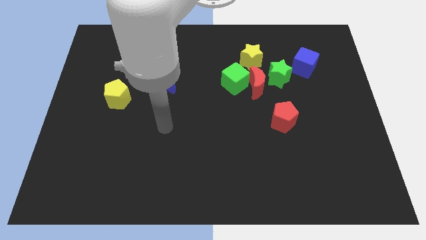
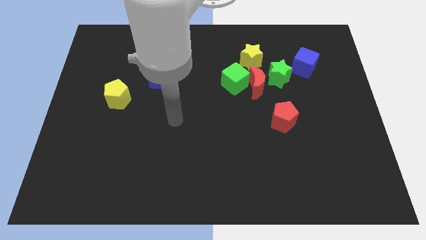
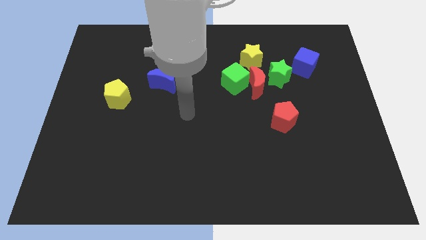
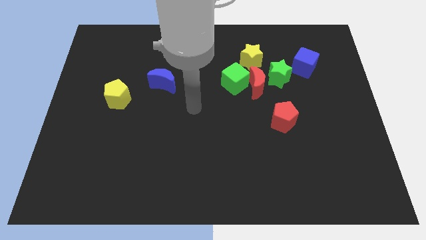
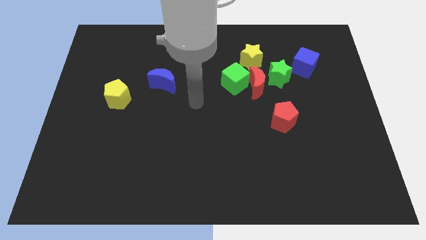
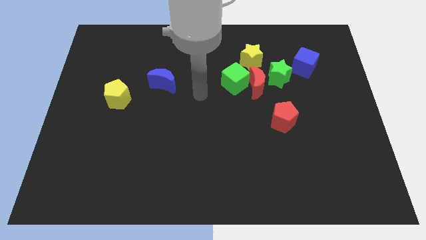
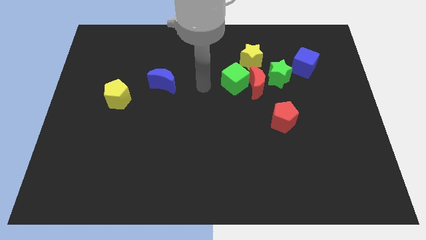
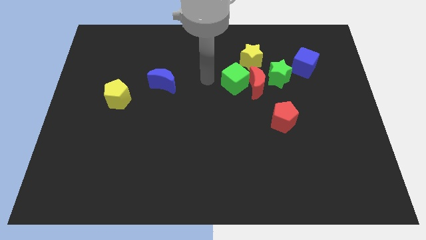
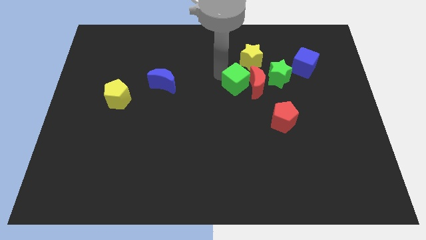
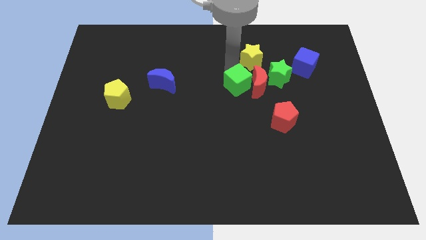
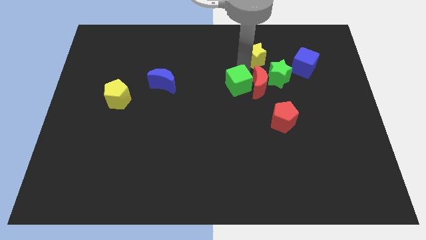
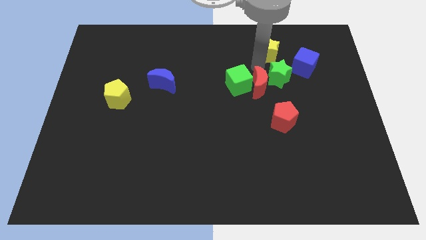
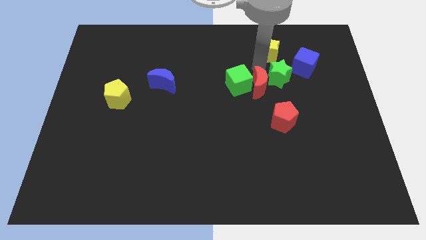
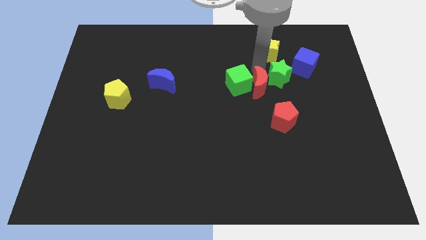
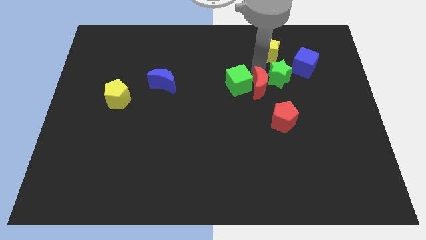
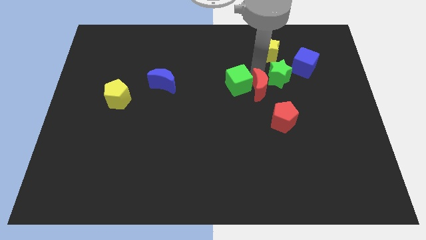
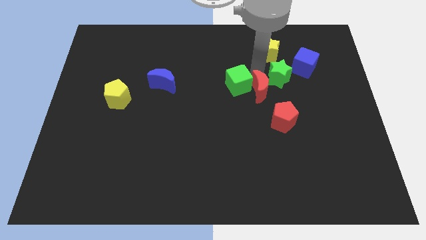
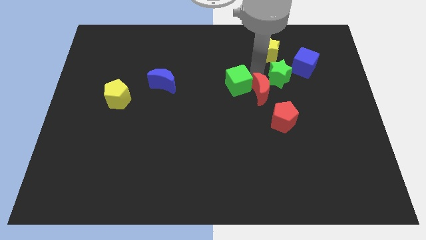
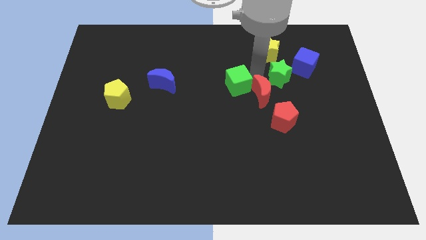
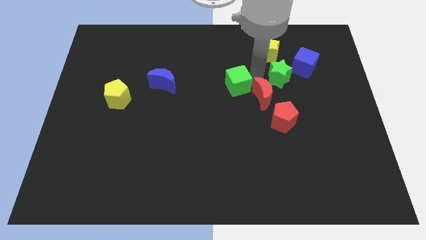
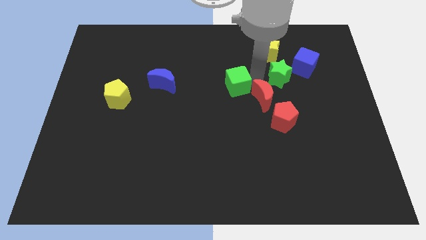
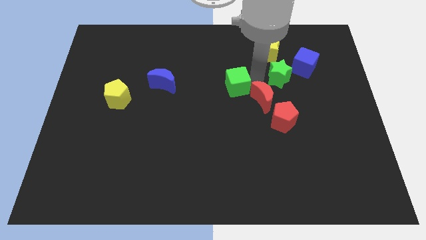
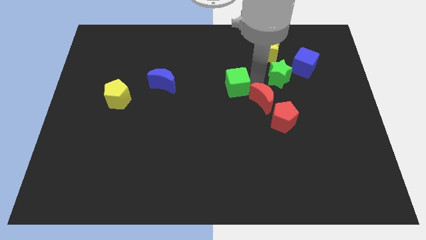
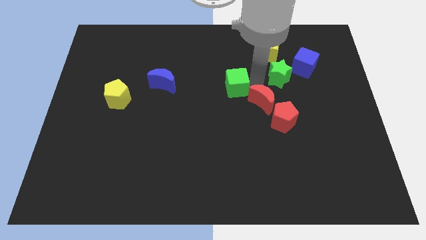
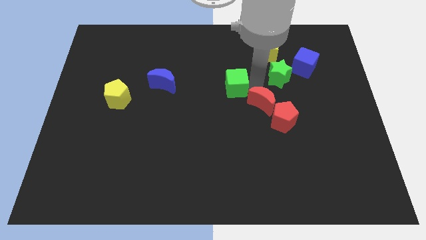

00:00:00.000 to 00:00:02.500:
pull the red moon apart from the group of blocks

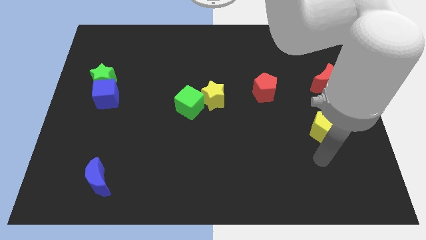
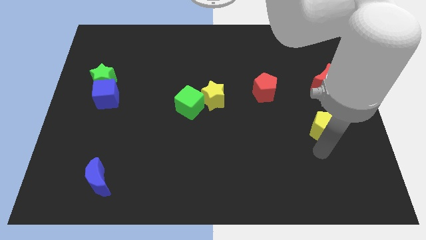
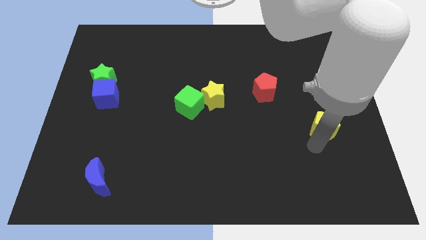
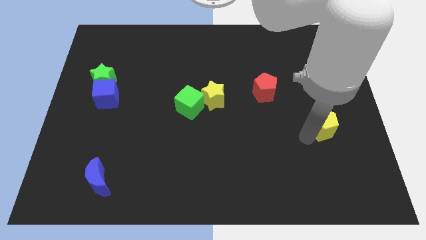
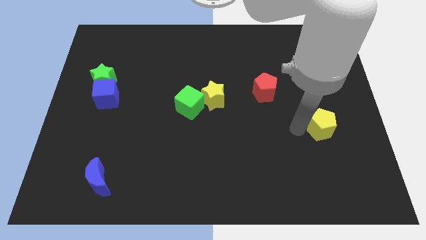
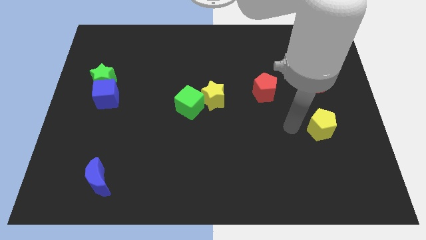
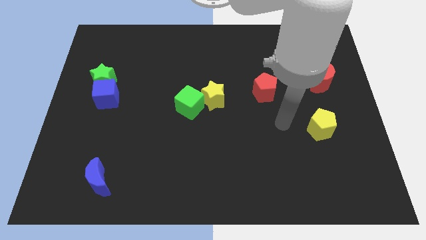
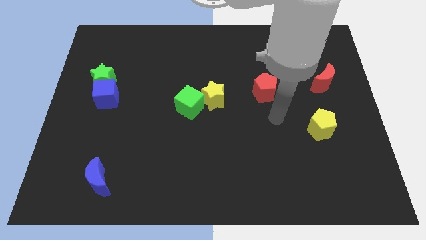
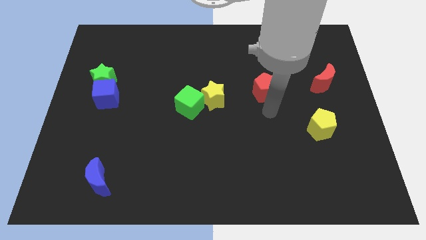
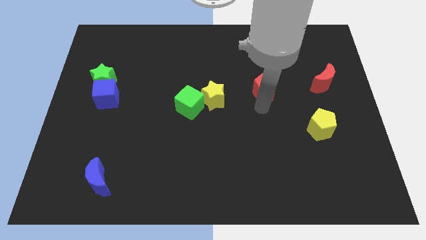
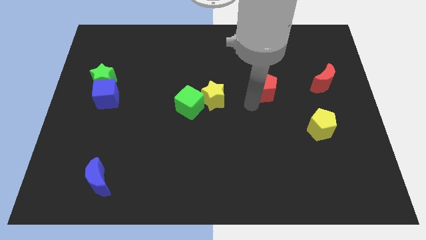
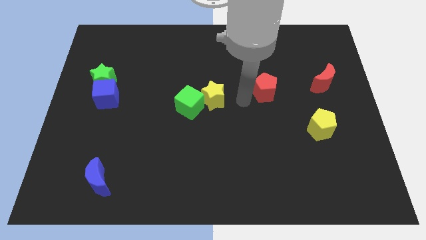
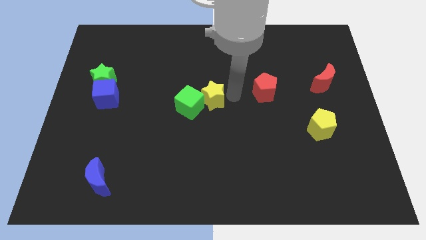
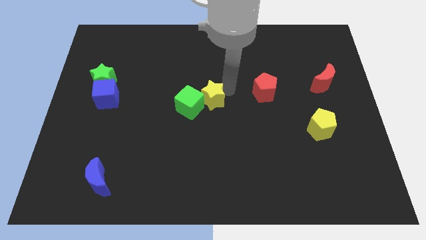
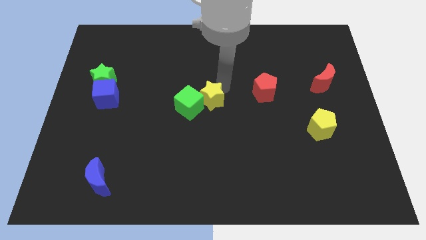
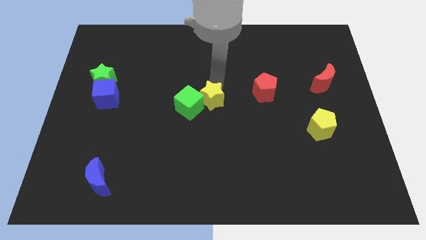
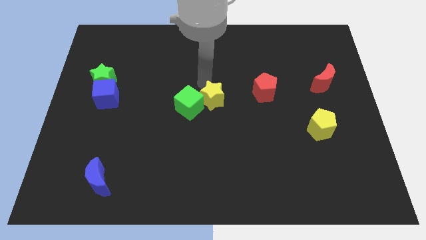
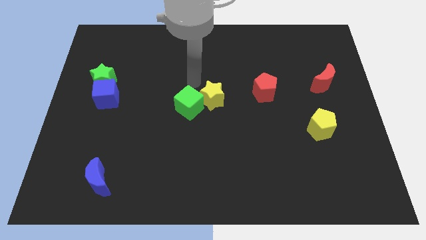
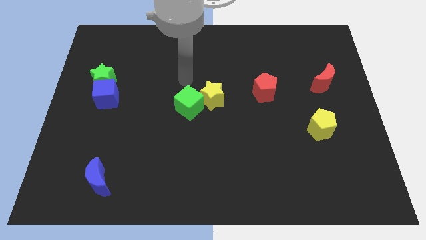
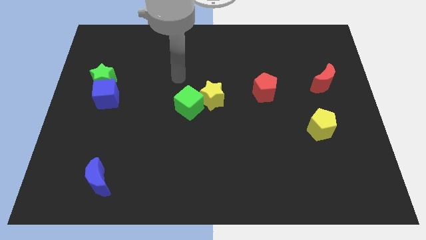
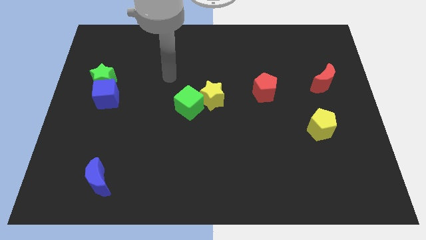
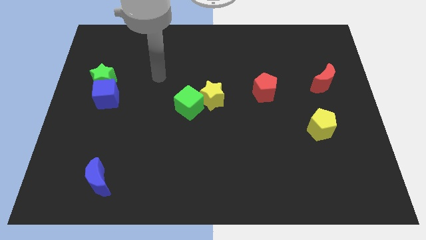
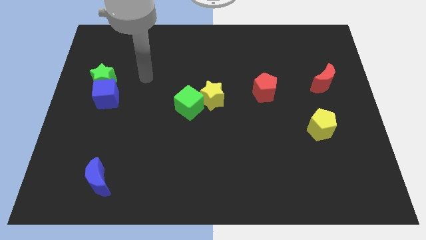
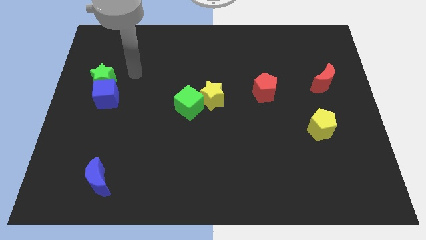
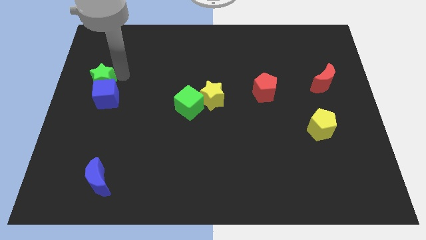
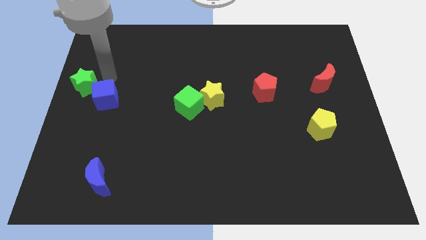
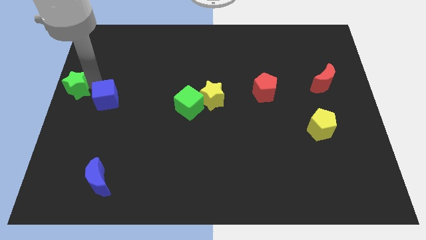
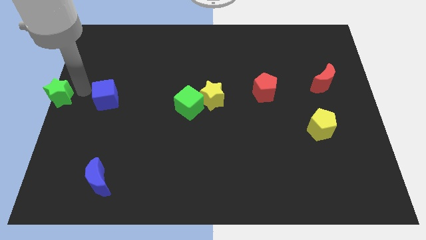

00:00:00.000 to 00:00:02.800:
separate the blue cube from the green star

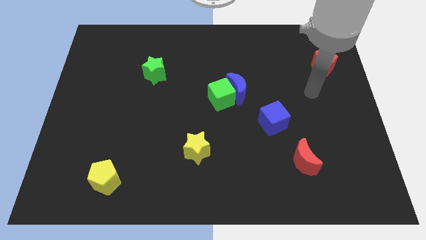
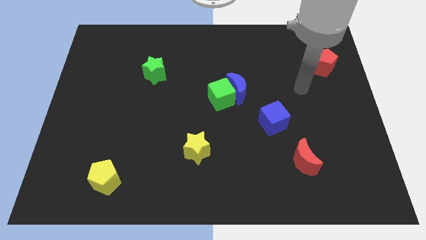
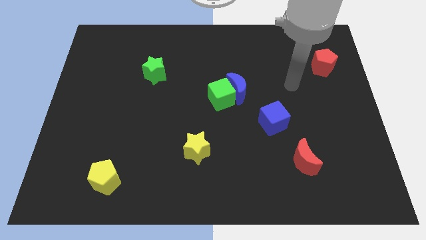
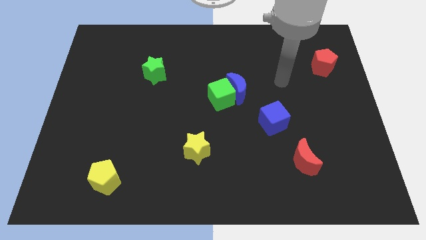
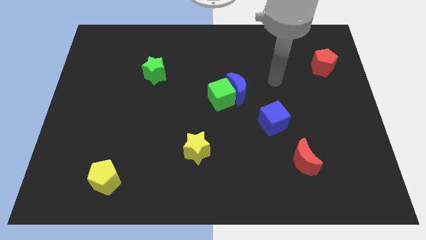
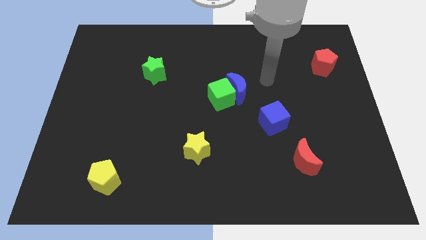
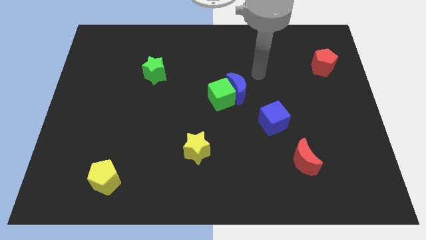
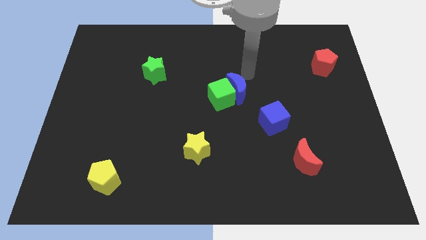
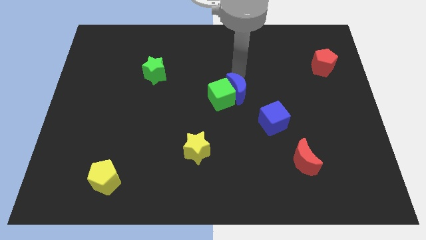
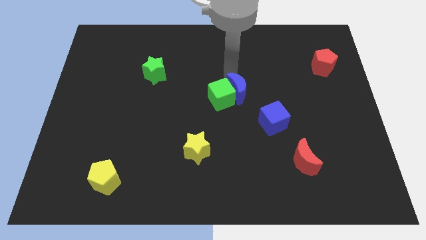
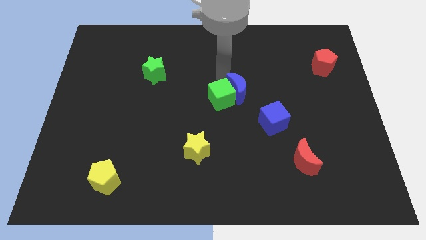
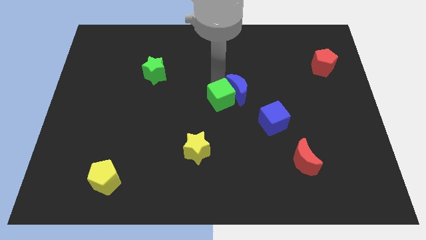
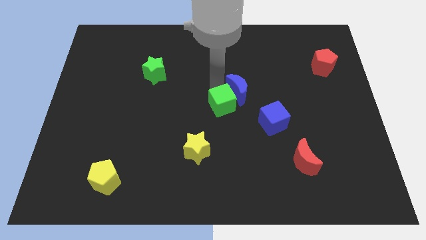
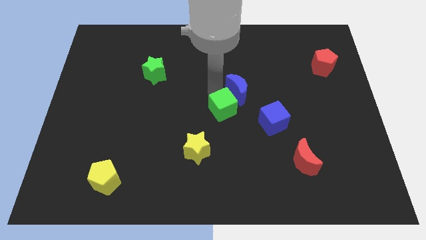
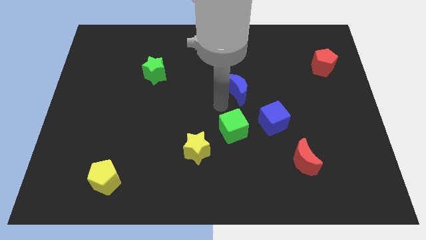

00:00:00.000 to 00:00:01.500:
move the blue moon away from the green cube

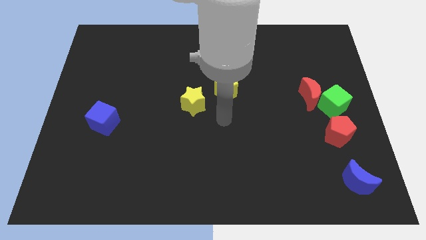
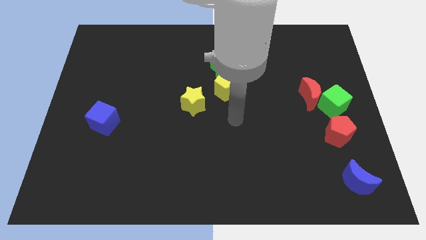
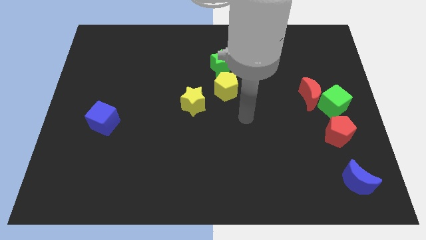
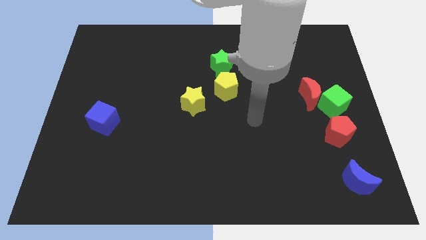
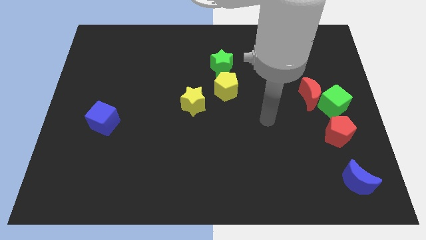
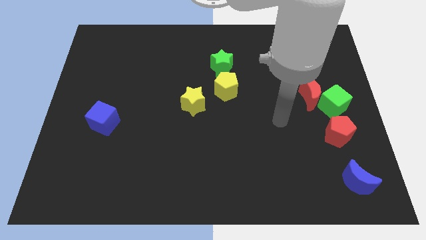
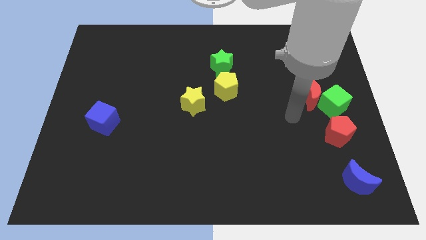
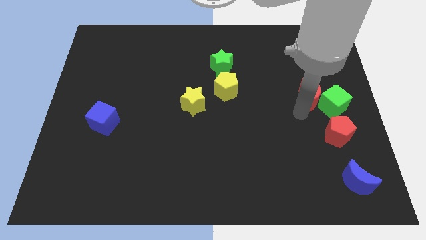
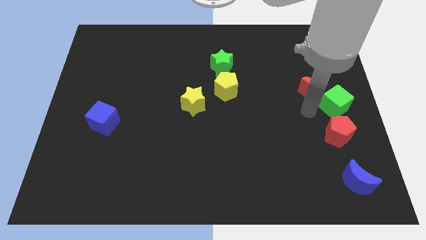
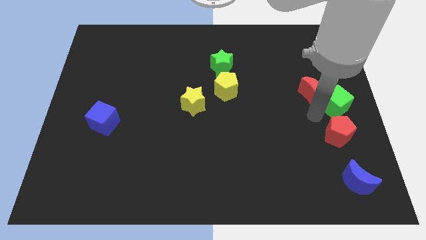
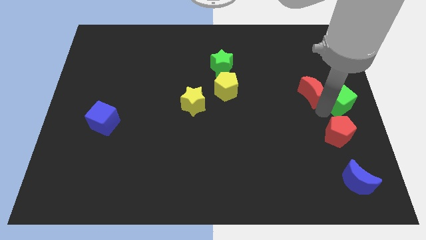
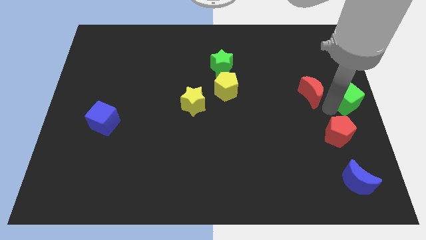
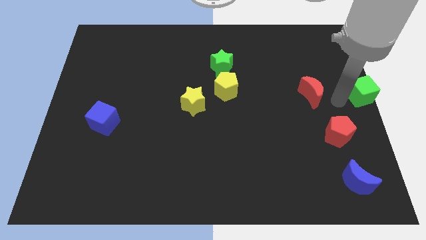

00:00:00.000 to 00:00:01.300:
move the red moon away from the green cube

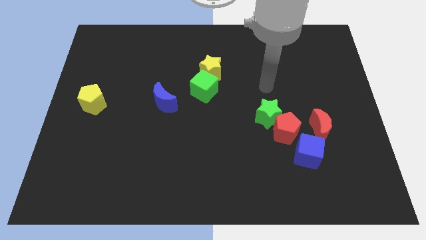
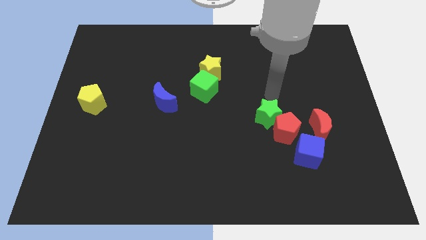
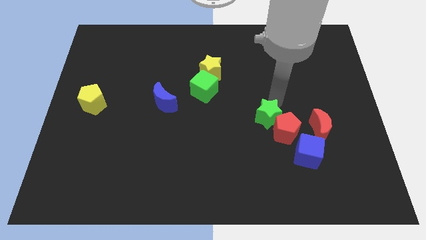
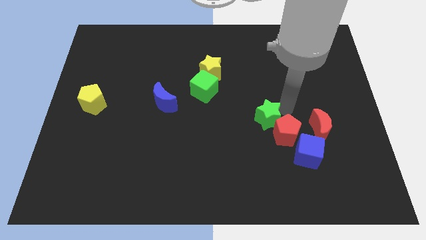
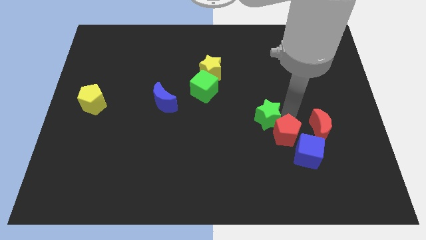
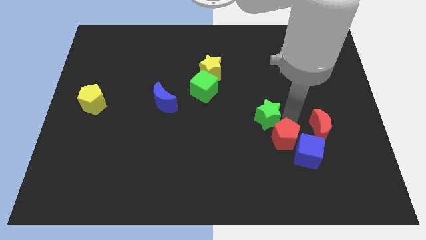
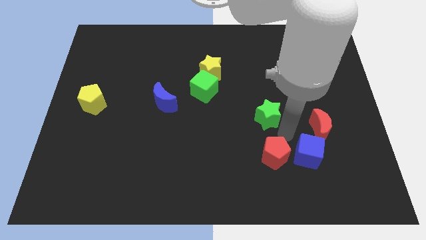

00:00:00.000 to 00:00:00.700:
pull the green star apart from the red pentagon

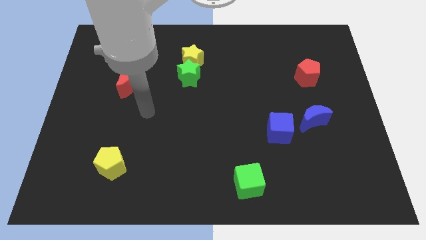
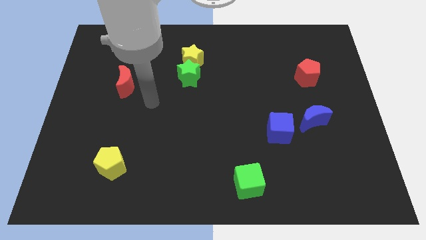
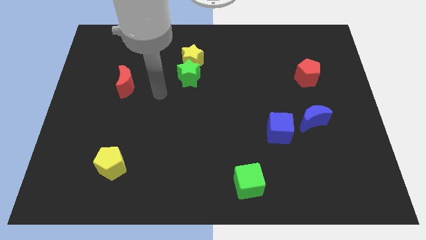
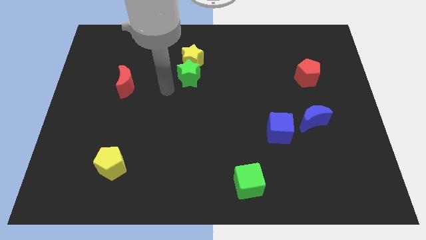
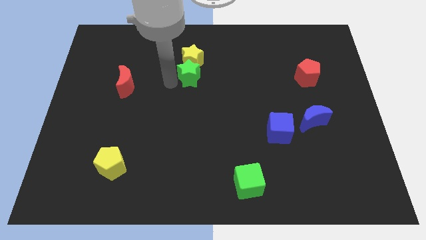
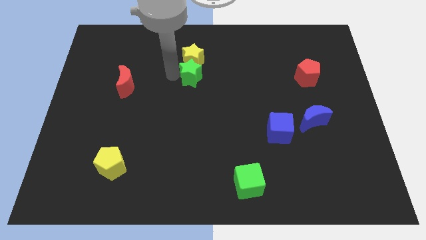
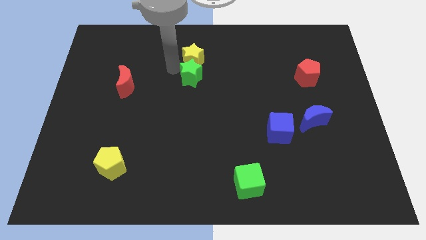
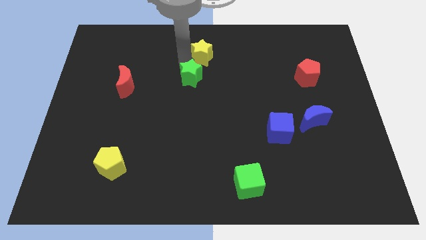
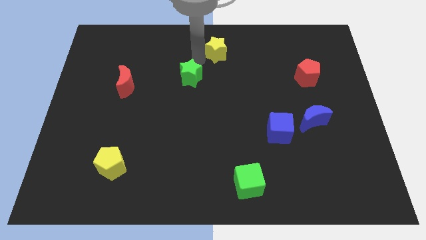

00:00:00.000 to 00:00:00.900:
separate the green star from the yellow star
